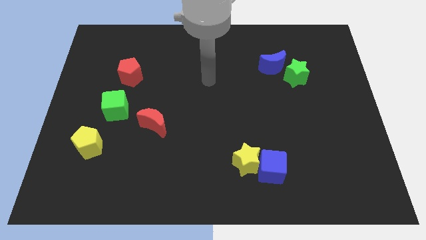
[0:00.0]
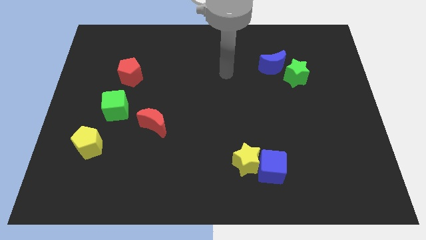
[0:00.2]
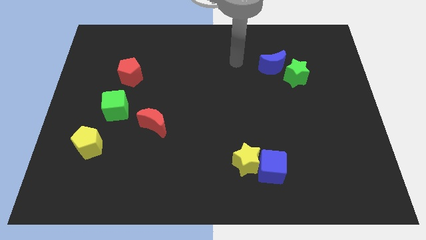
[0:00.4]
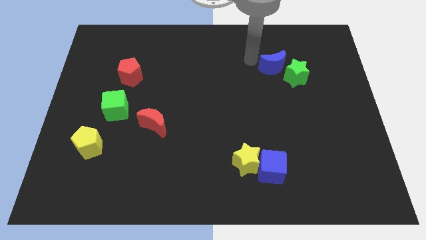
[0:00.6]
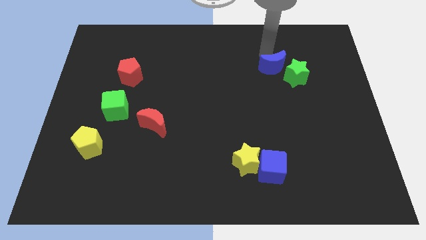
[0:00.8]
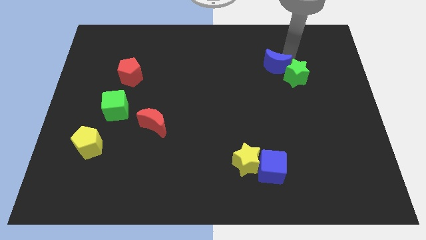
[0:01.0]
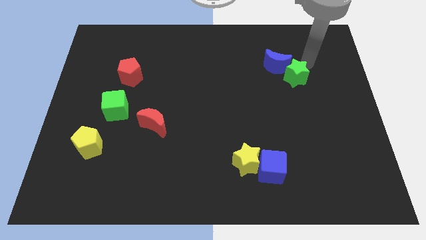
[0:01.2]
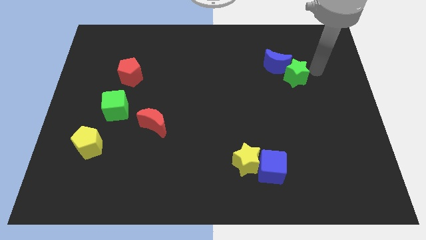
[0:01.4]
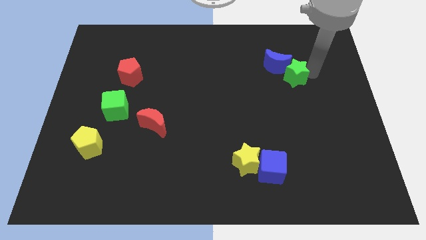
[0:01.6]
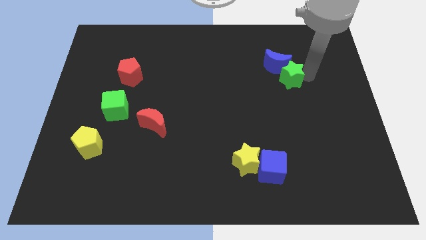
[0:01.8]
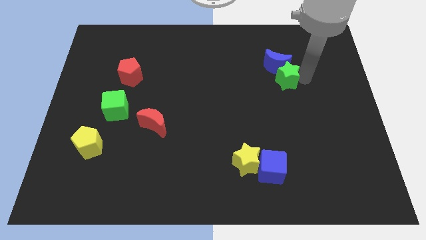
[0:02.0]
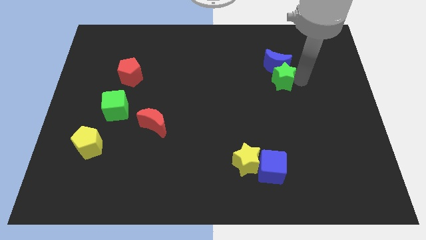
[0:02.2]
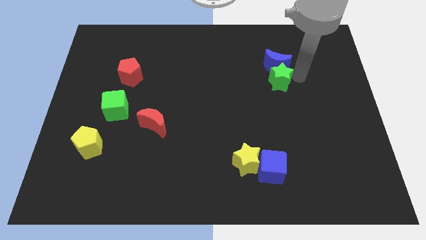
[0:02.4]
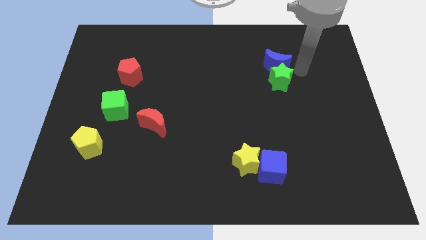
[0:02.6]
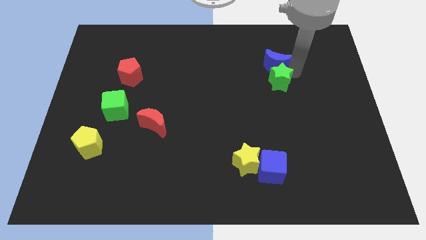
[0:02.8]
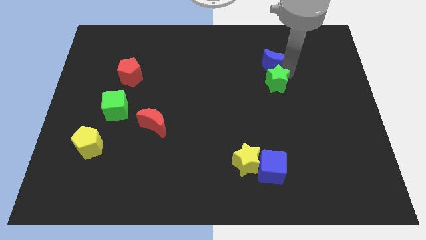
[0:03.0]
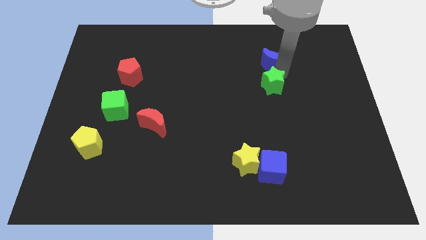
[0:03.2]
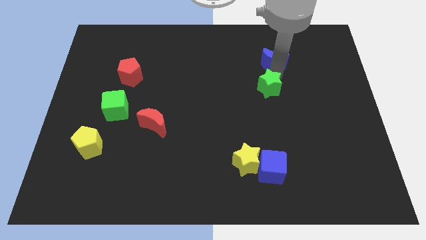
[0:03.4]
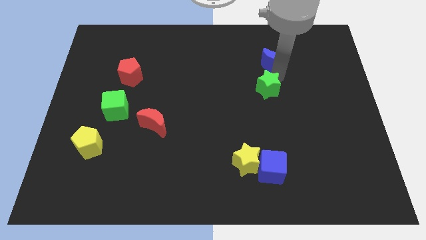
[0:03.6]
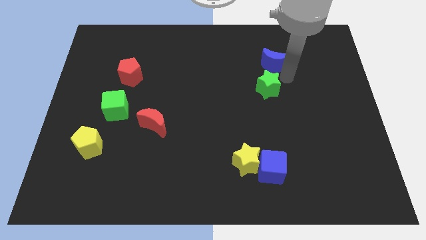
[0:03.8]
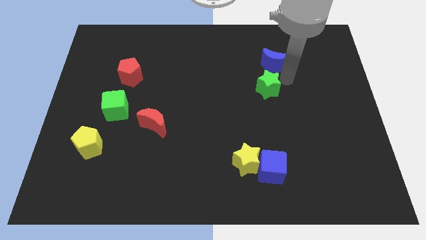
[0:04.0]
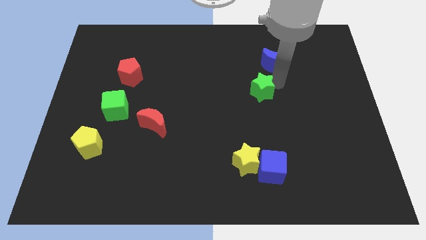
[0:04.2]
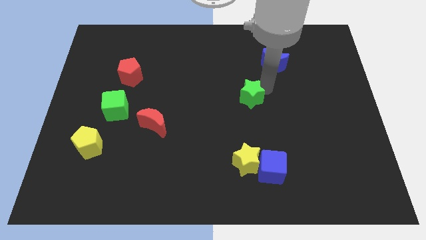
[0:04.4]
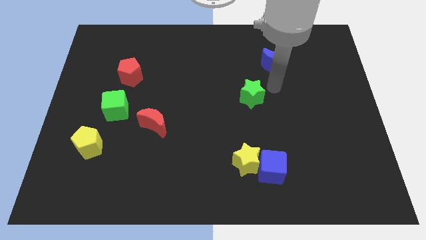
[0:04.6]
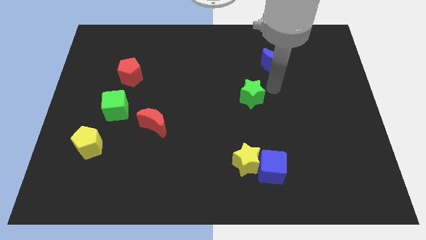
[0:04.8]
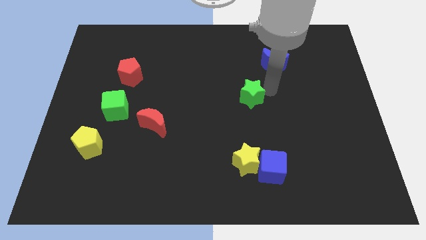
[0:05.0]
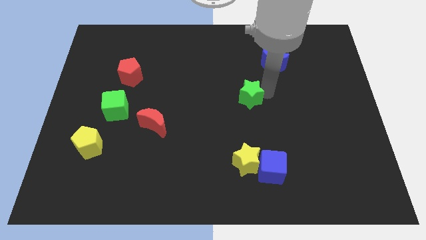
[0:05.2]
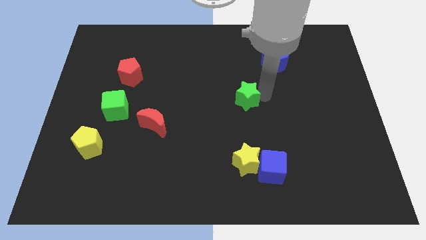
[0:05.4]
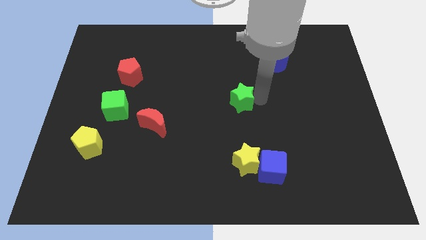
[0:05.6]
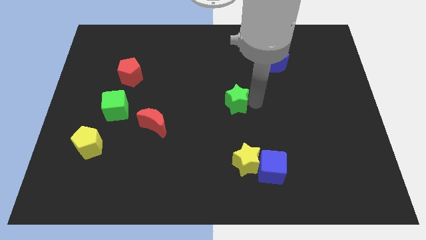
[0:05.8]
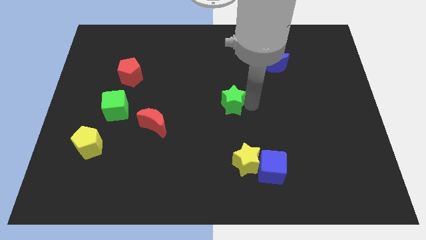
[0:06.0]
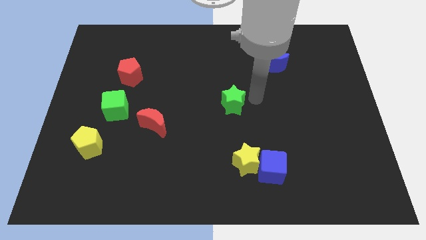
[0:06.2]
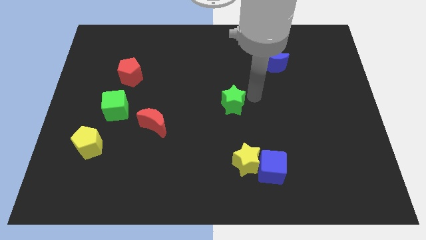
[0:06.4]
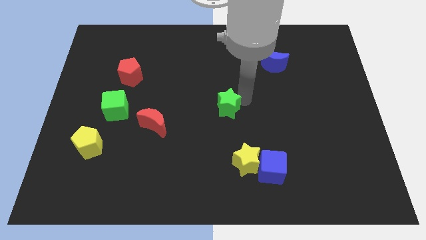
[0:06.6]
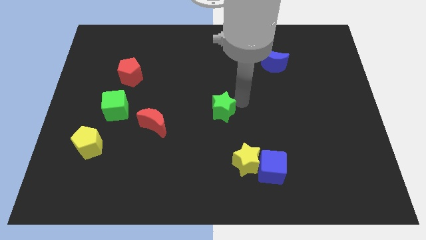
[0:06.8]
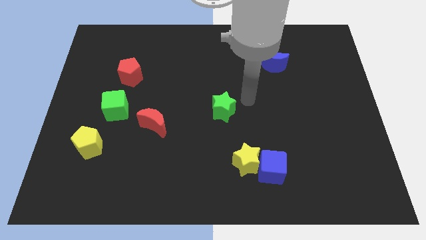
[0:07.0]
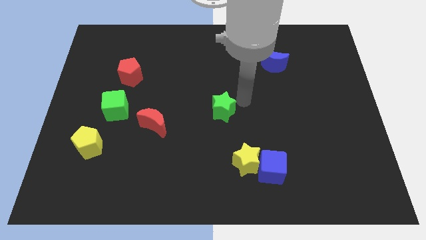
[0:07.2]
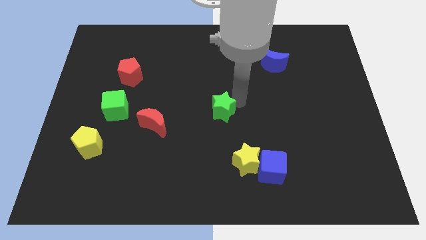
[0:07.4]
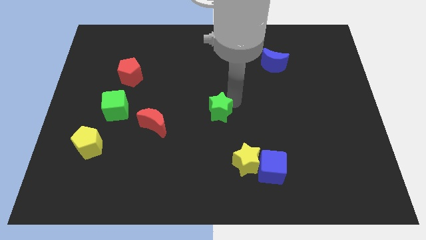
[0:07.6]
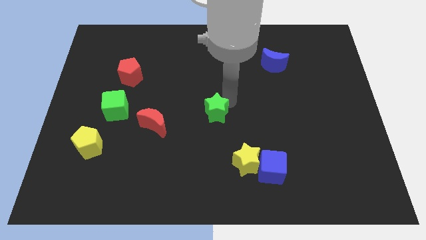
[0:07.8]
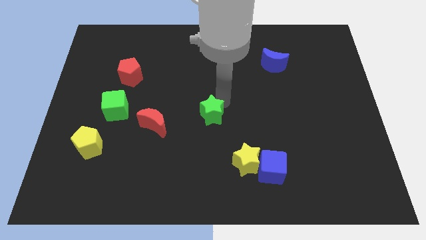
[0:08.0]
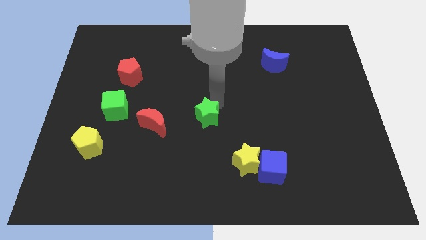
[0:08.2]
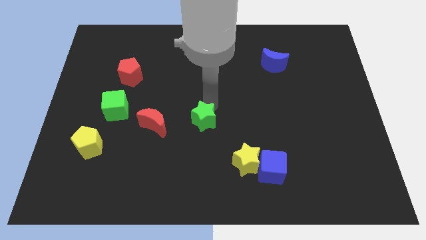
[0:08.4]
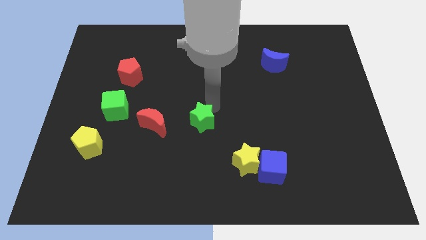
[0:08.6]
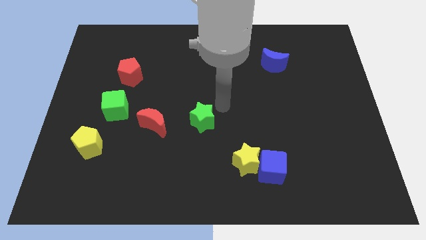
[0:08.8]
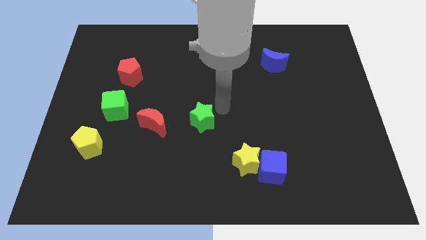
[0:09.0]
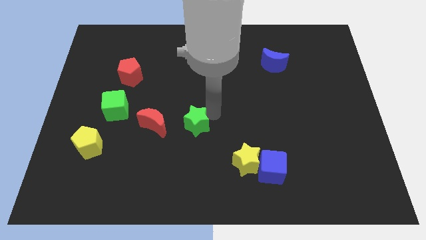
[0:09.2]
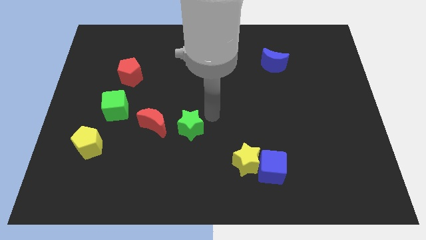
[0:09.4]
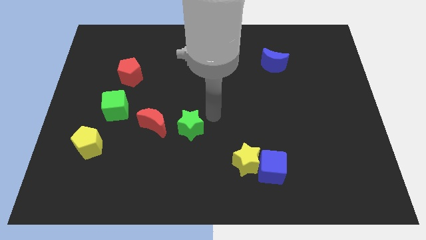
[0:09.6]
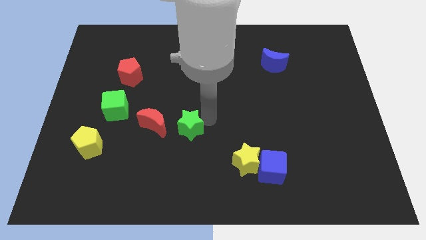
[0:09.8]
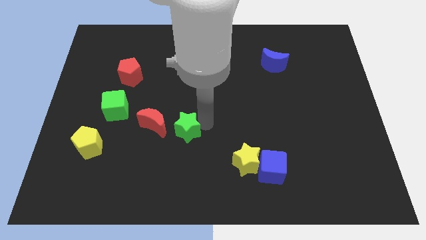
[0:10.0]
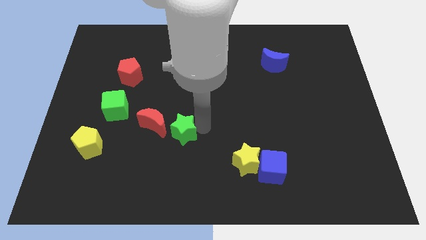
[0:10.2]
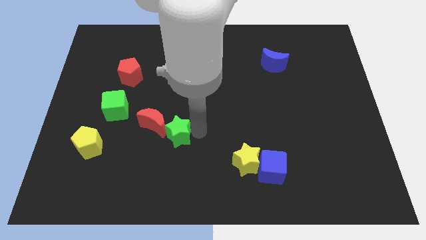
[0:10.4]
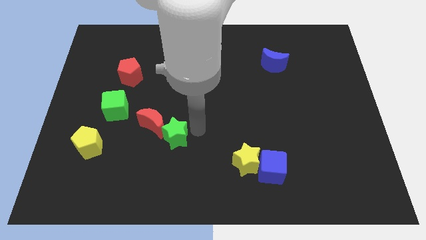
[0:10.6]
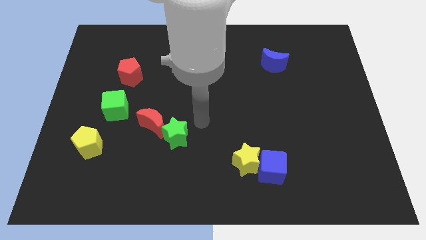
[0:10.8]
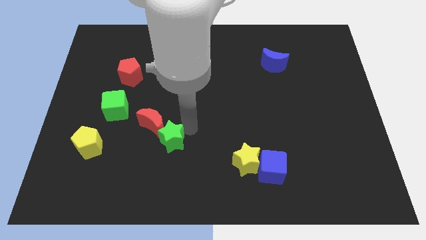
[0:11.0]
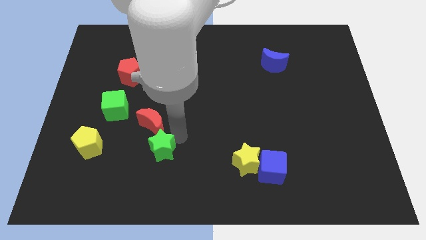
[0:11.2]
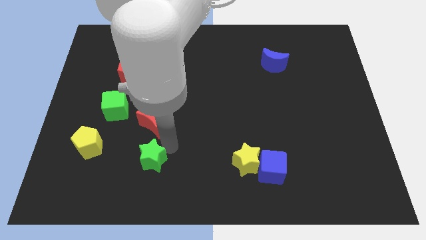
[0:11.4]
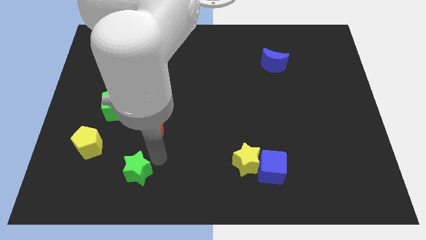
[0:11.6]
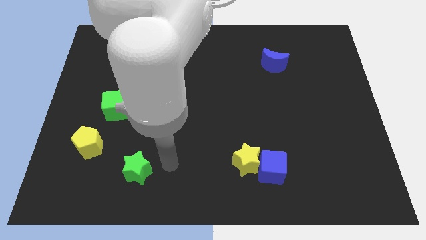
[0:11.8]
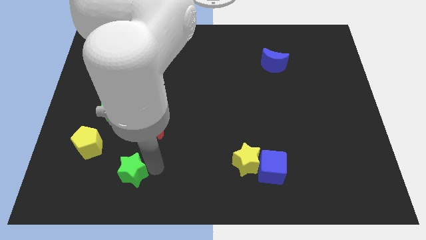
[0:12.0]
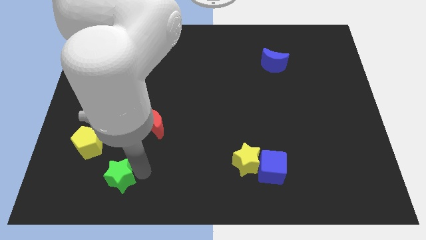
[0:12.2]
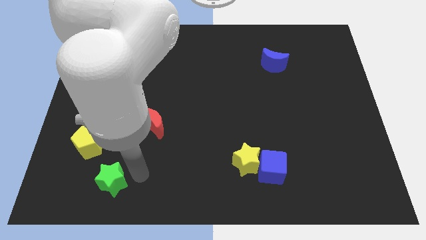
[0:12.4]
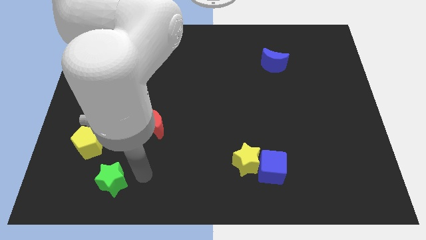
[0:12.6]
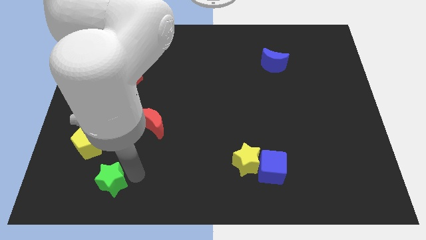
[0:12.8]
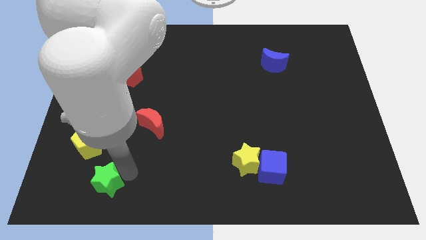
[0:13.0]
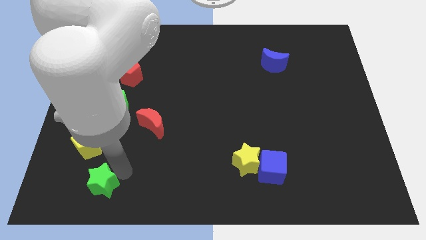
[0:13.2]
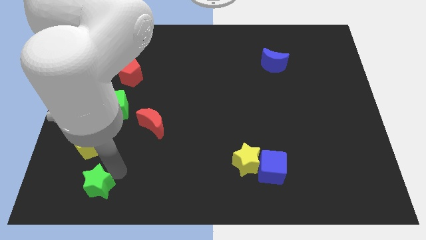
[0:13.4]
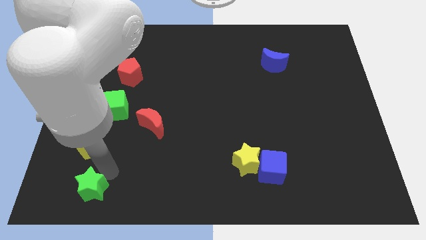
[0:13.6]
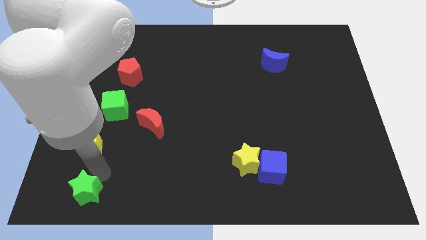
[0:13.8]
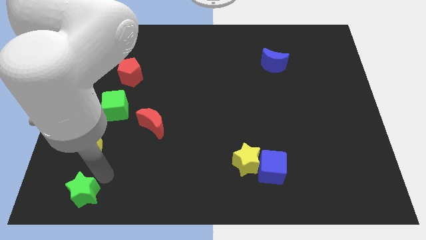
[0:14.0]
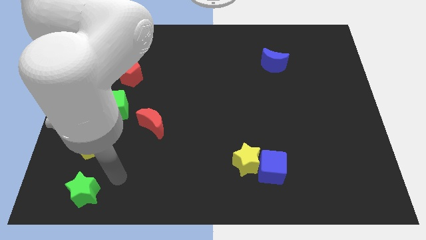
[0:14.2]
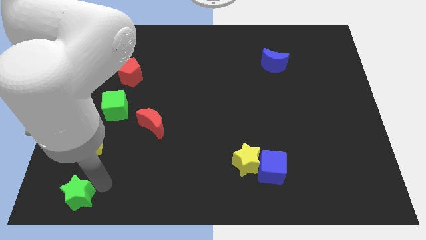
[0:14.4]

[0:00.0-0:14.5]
move the green star to the bottom left of the board
